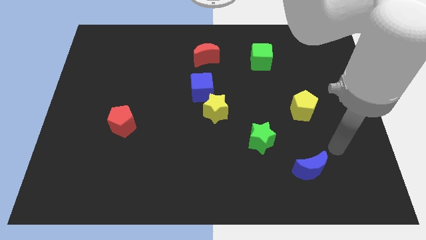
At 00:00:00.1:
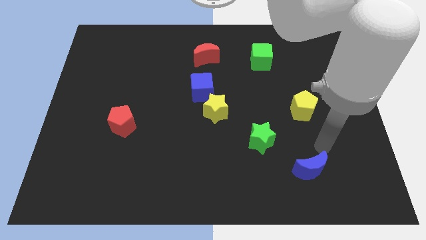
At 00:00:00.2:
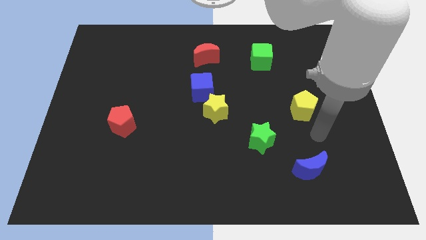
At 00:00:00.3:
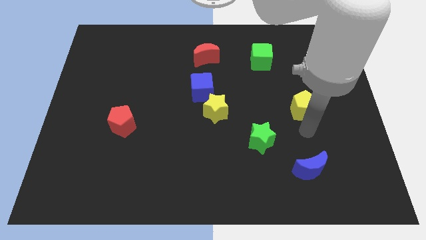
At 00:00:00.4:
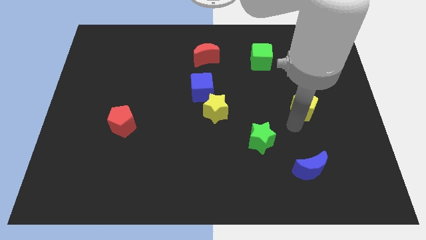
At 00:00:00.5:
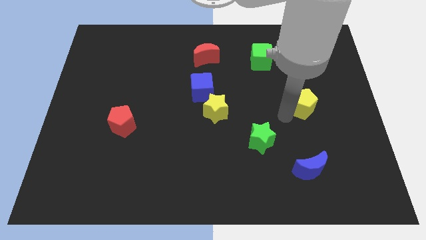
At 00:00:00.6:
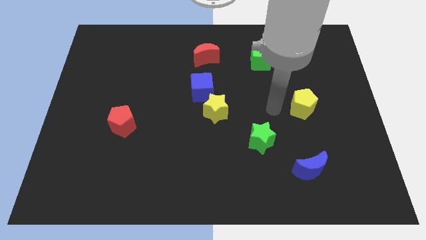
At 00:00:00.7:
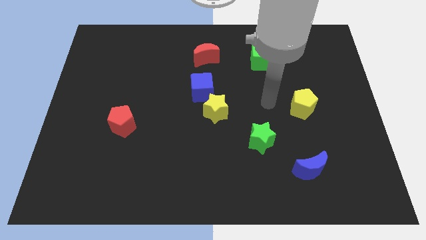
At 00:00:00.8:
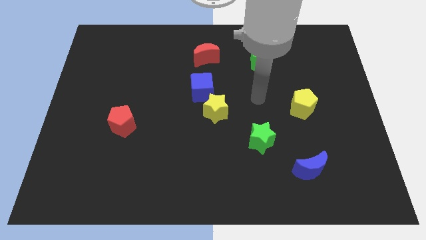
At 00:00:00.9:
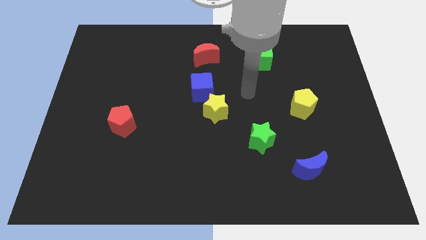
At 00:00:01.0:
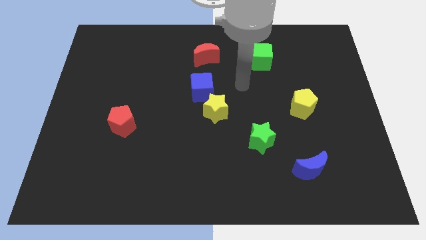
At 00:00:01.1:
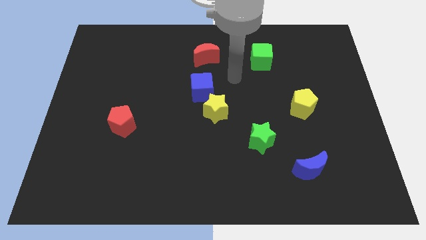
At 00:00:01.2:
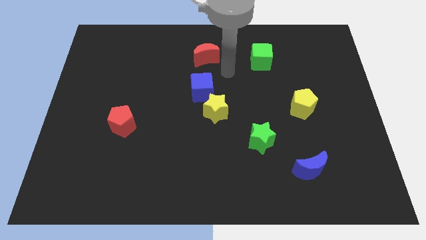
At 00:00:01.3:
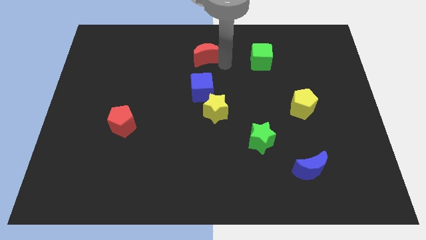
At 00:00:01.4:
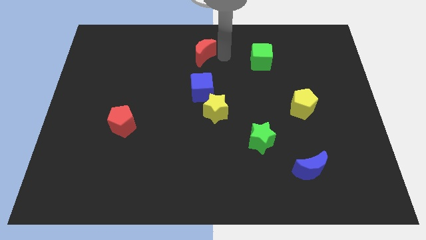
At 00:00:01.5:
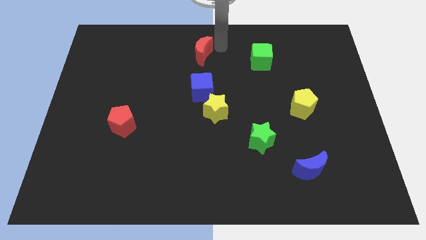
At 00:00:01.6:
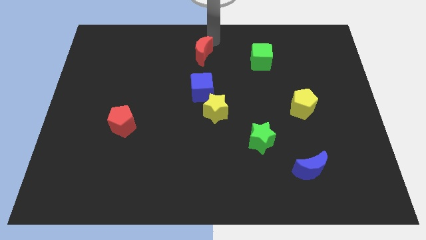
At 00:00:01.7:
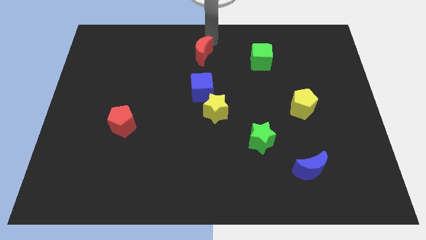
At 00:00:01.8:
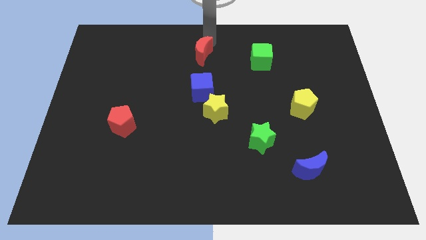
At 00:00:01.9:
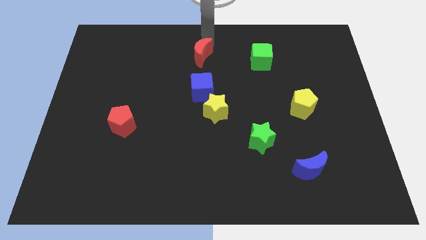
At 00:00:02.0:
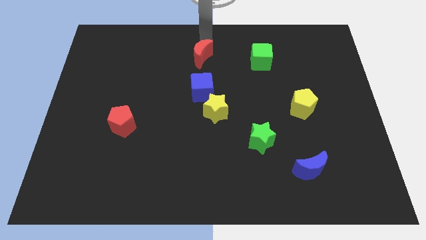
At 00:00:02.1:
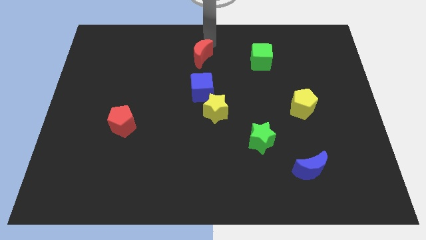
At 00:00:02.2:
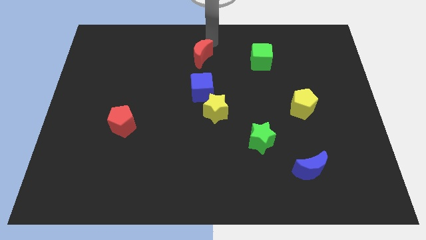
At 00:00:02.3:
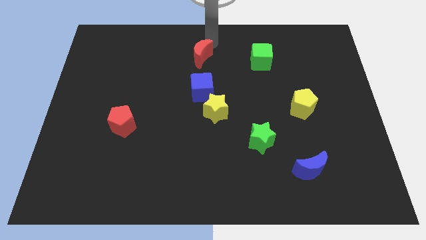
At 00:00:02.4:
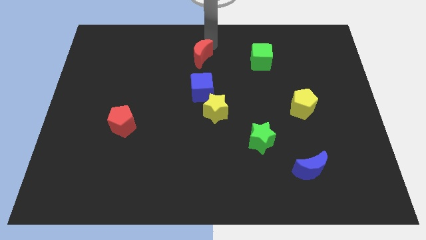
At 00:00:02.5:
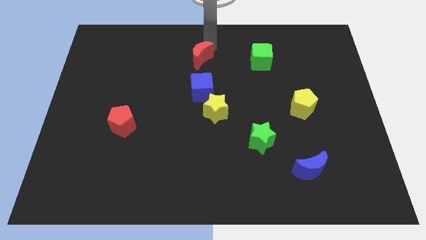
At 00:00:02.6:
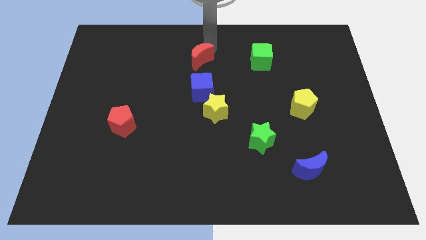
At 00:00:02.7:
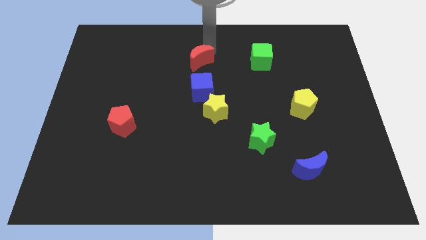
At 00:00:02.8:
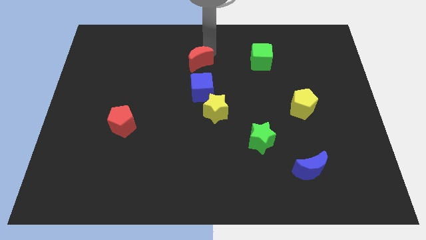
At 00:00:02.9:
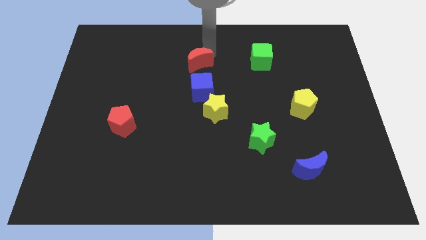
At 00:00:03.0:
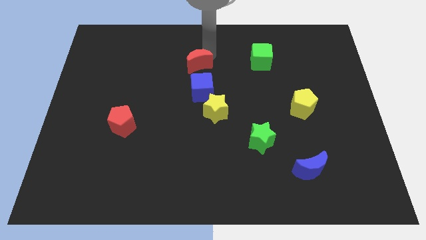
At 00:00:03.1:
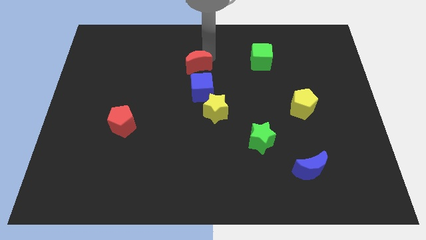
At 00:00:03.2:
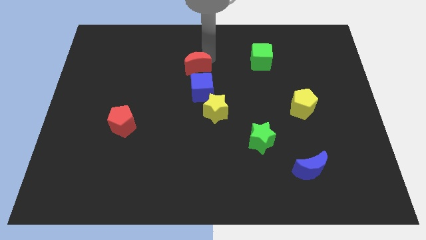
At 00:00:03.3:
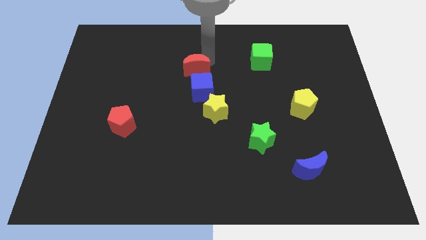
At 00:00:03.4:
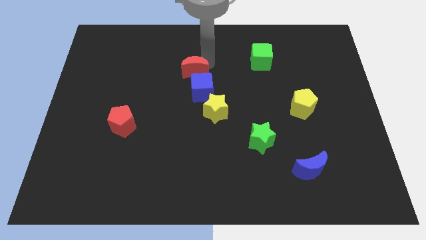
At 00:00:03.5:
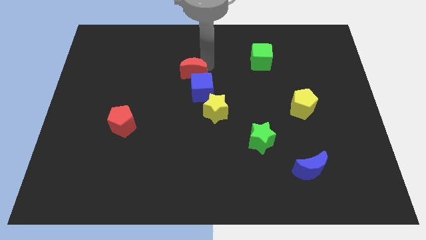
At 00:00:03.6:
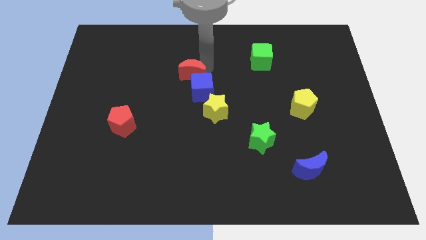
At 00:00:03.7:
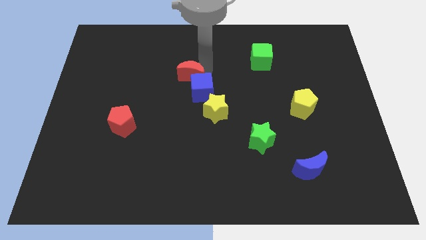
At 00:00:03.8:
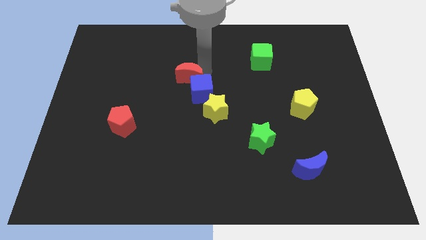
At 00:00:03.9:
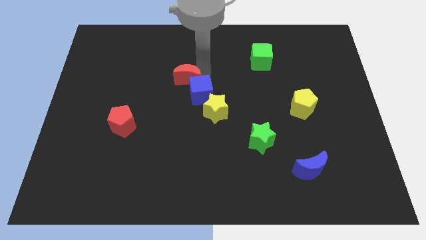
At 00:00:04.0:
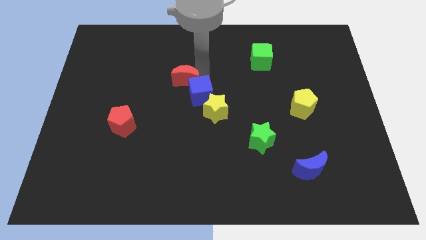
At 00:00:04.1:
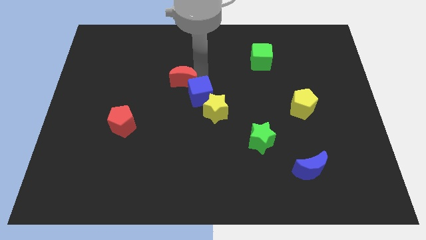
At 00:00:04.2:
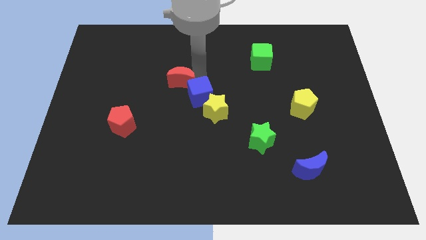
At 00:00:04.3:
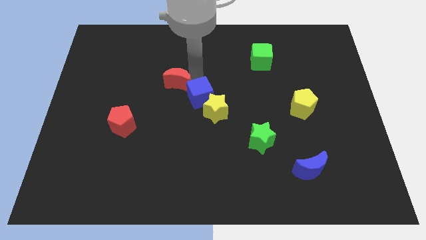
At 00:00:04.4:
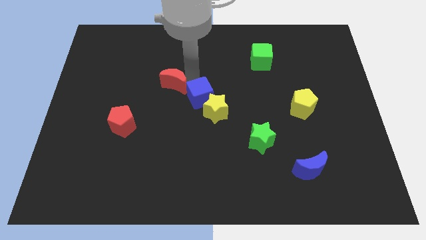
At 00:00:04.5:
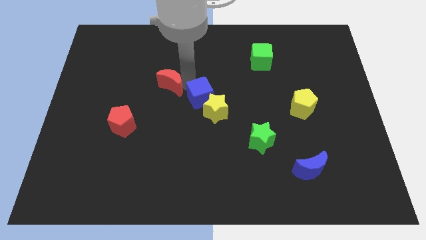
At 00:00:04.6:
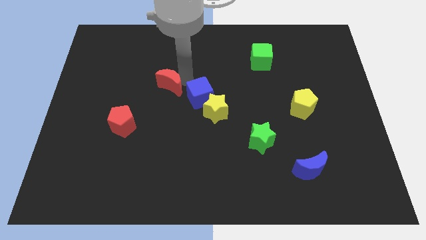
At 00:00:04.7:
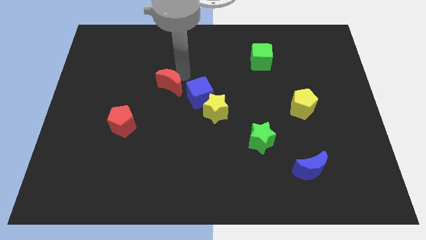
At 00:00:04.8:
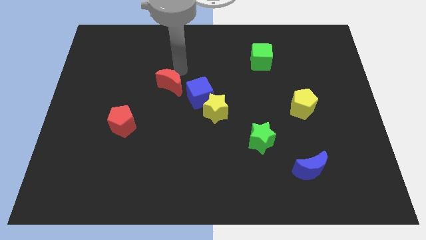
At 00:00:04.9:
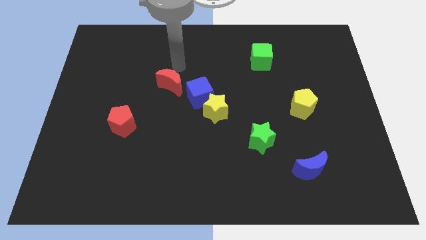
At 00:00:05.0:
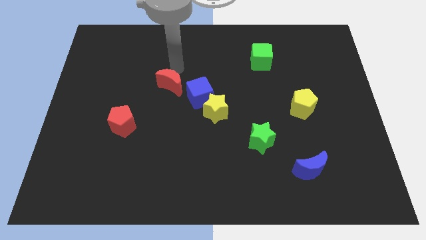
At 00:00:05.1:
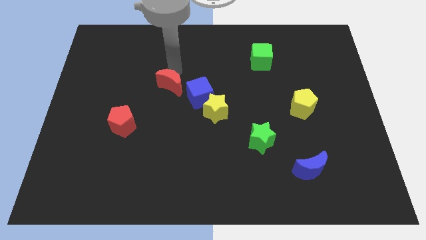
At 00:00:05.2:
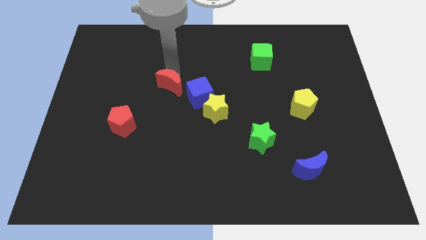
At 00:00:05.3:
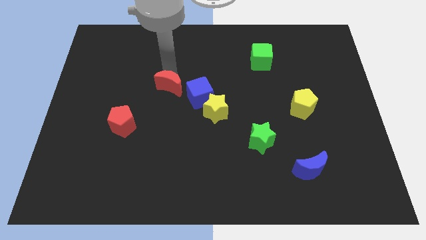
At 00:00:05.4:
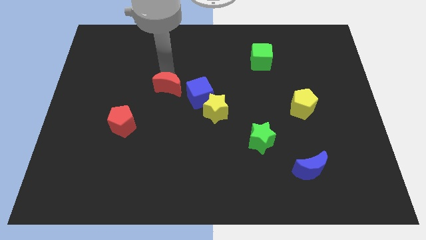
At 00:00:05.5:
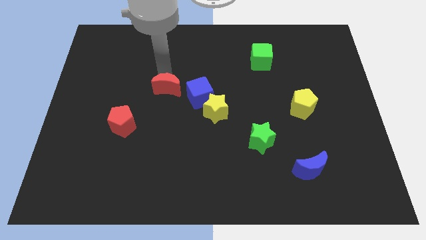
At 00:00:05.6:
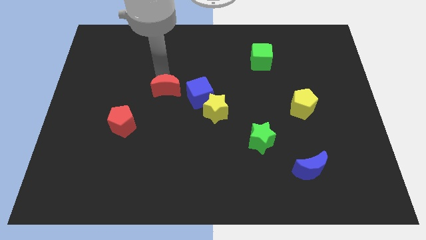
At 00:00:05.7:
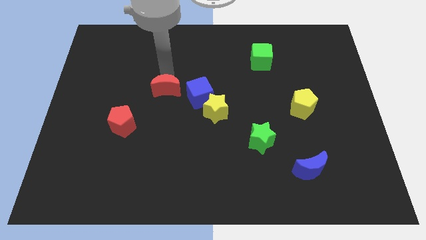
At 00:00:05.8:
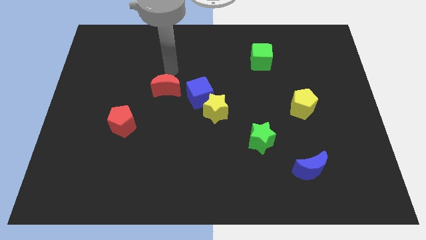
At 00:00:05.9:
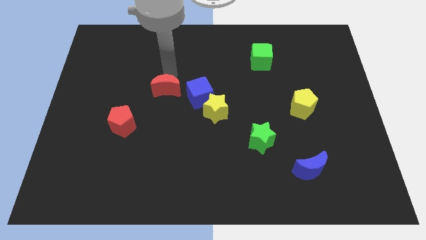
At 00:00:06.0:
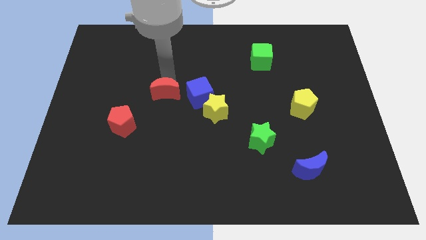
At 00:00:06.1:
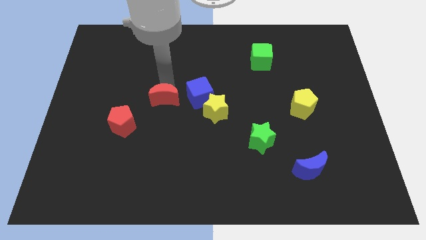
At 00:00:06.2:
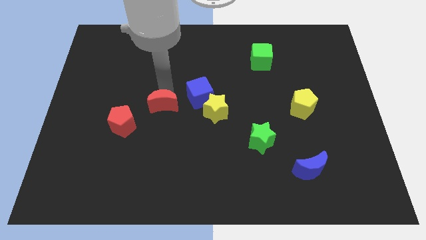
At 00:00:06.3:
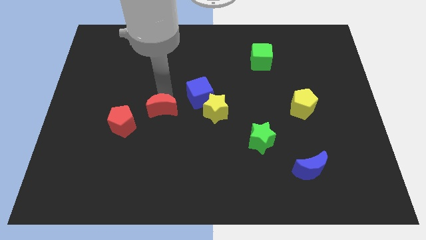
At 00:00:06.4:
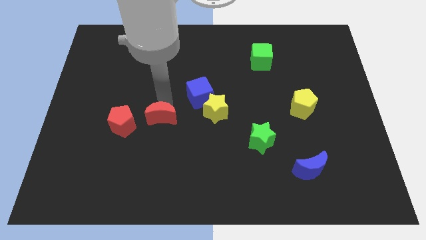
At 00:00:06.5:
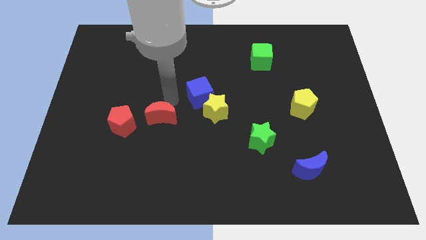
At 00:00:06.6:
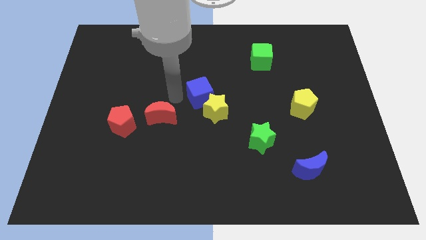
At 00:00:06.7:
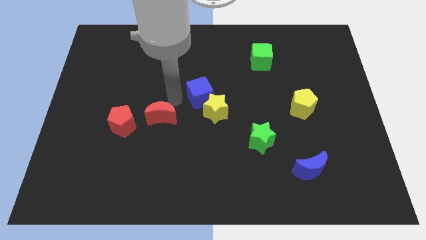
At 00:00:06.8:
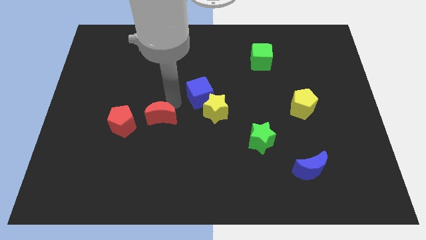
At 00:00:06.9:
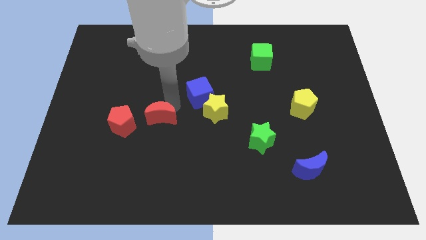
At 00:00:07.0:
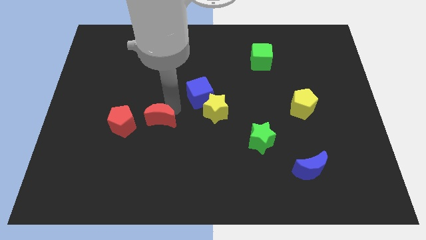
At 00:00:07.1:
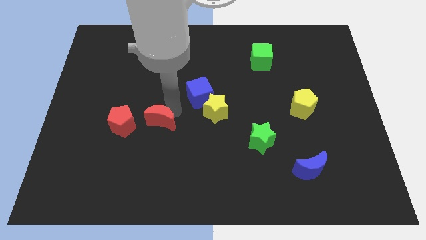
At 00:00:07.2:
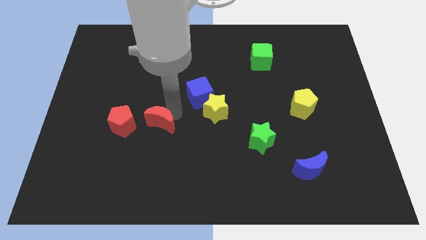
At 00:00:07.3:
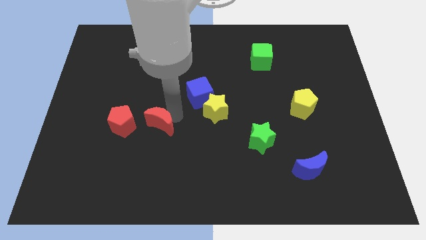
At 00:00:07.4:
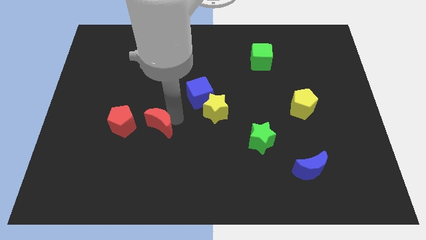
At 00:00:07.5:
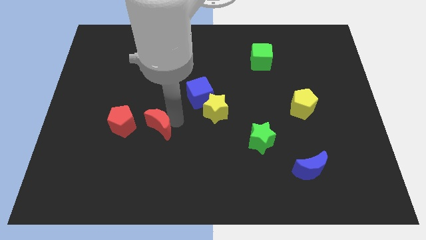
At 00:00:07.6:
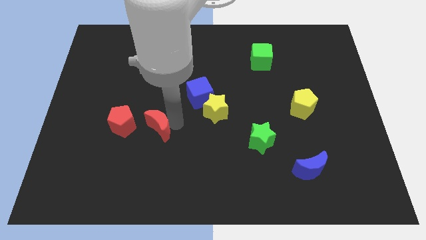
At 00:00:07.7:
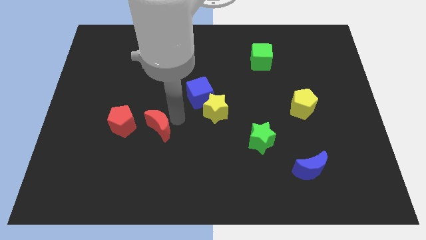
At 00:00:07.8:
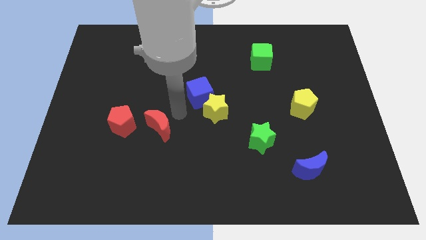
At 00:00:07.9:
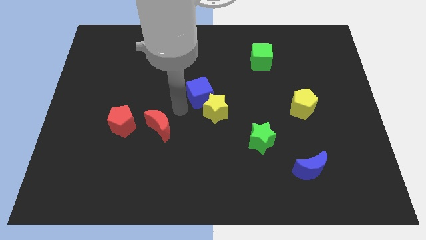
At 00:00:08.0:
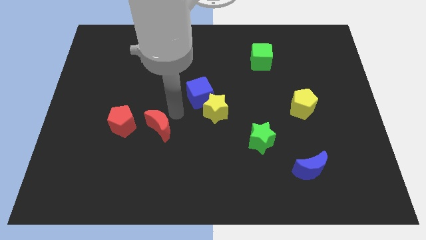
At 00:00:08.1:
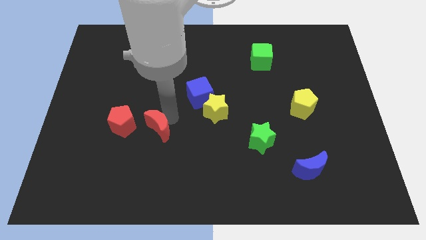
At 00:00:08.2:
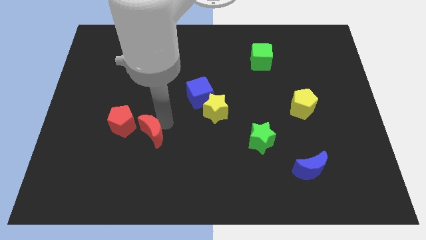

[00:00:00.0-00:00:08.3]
push the red moon to the bottom right of the red pentagon
